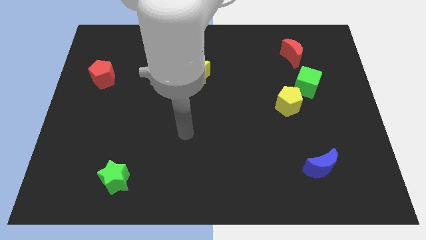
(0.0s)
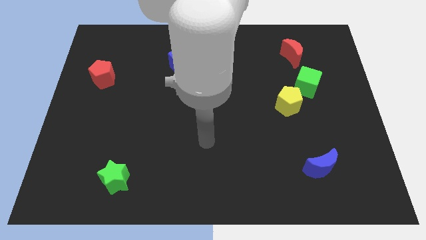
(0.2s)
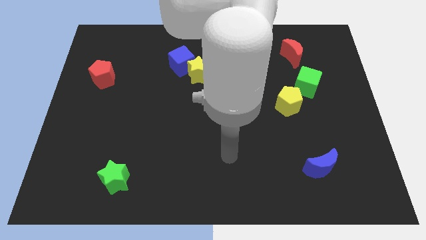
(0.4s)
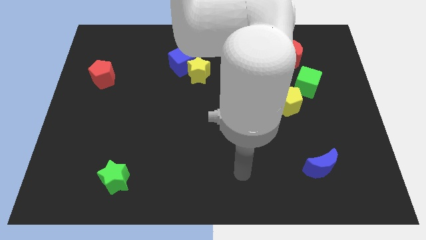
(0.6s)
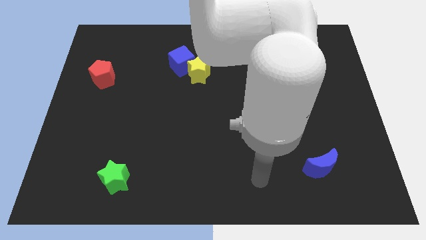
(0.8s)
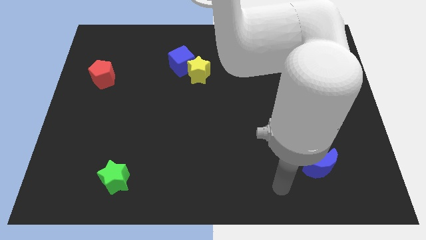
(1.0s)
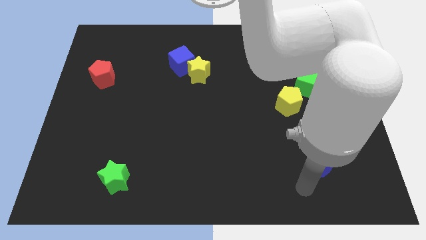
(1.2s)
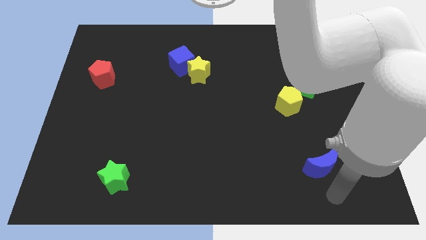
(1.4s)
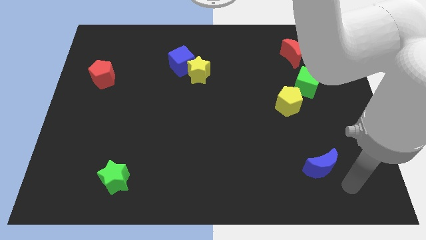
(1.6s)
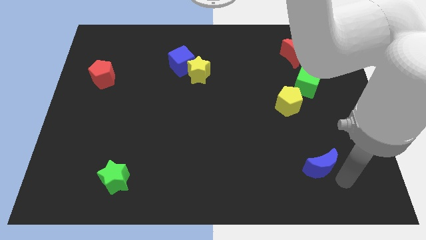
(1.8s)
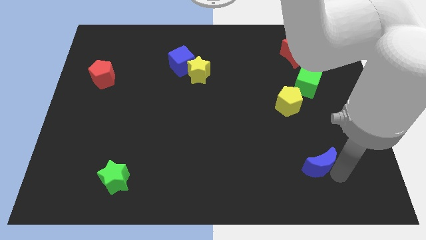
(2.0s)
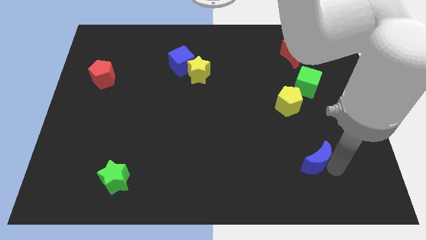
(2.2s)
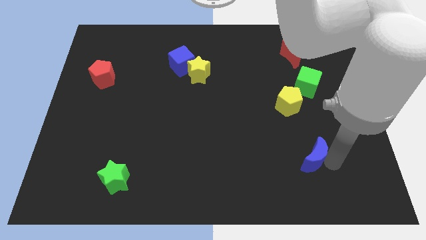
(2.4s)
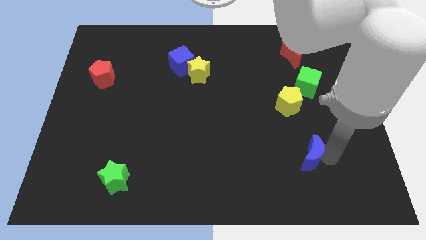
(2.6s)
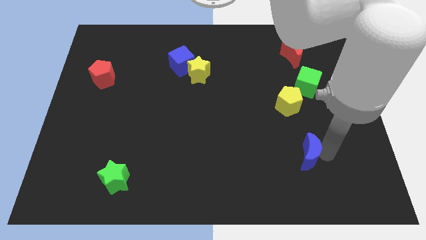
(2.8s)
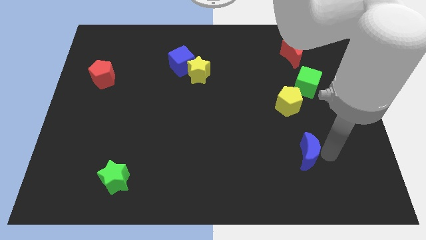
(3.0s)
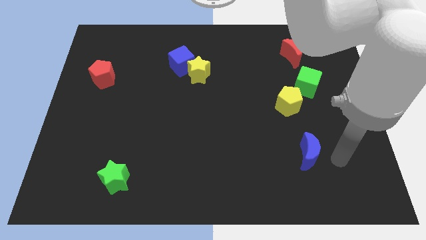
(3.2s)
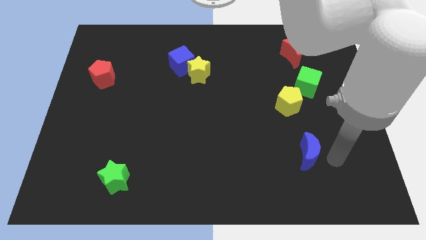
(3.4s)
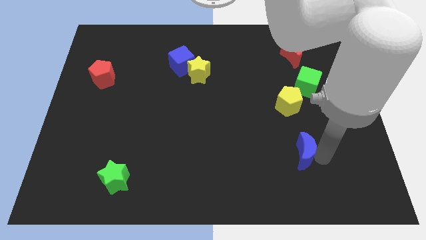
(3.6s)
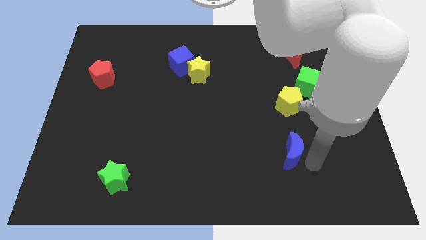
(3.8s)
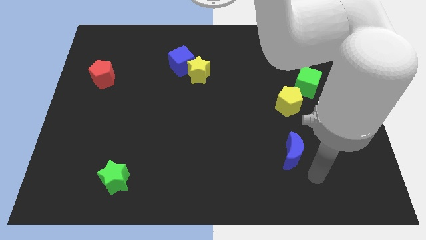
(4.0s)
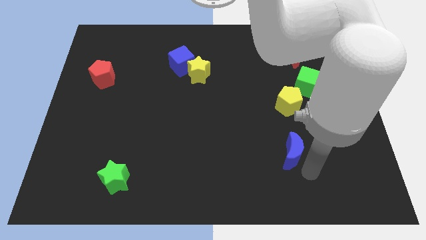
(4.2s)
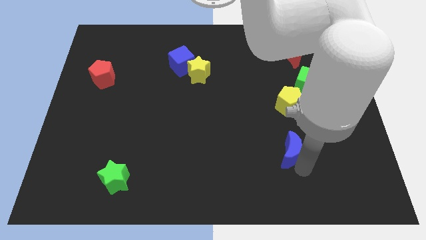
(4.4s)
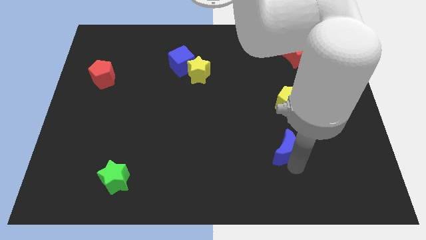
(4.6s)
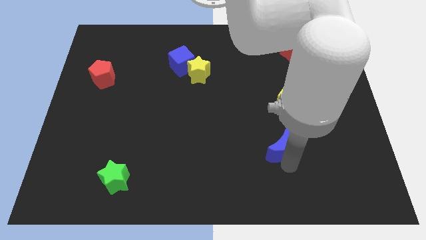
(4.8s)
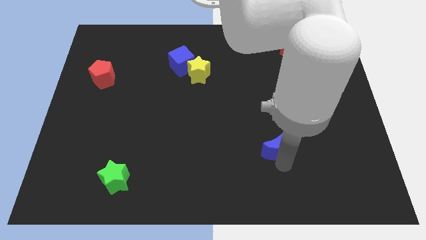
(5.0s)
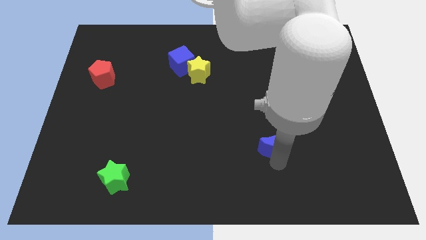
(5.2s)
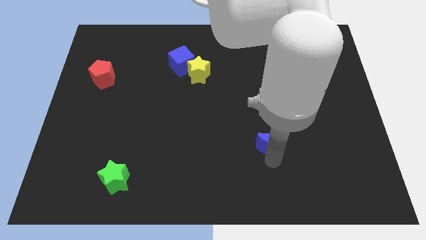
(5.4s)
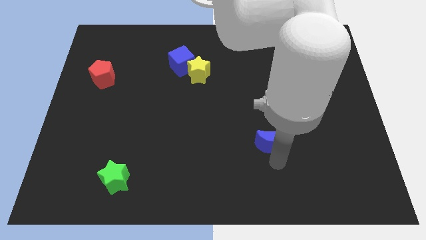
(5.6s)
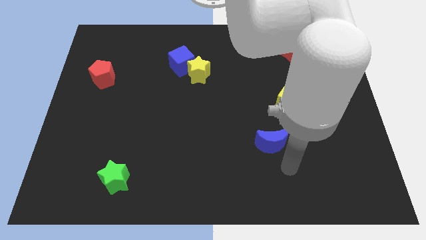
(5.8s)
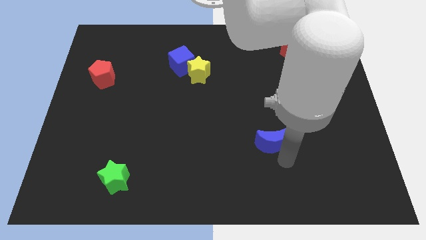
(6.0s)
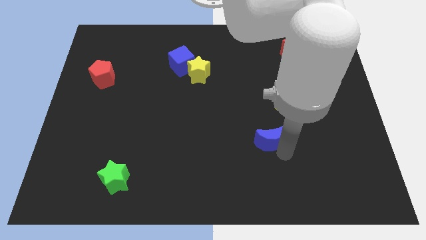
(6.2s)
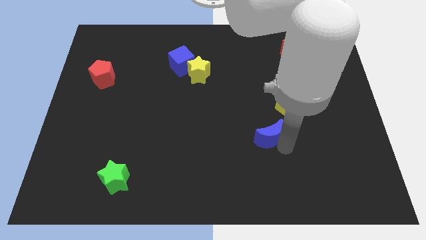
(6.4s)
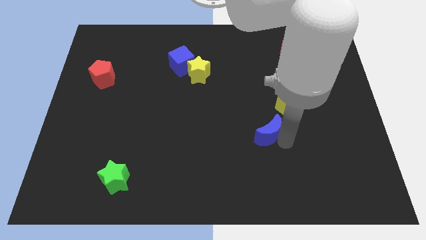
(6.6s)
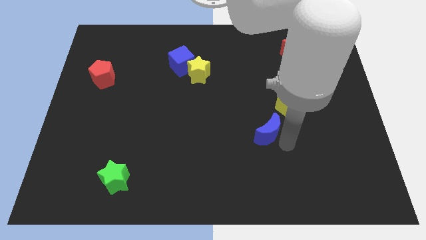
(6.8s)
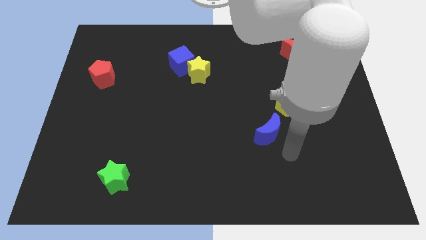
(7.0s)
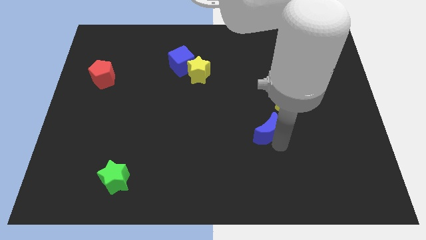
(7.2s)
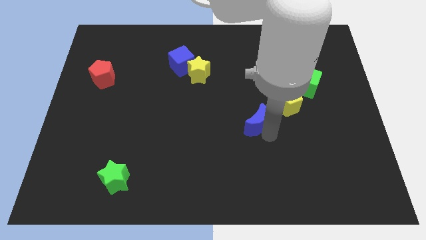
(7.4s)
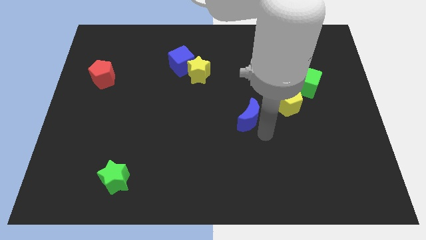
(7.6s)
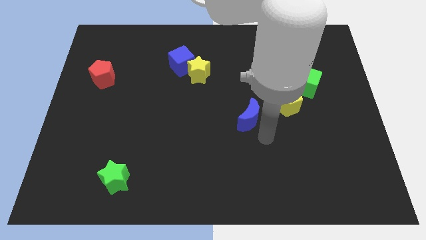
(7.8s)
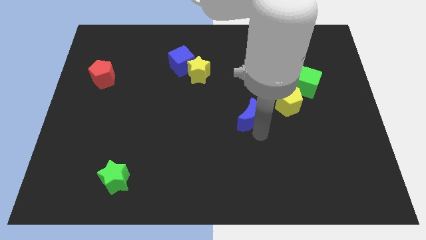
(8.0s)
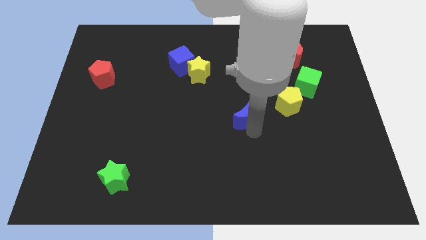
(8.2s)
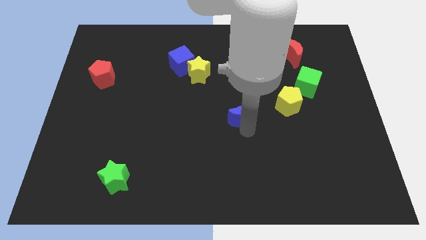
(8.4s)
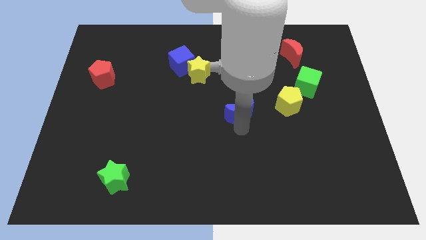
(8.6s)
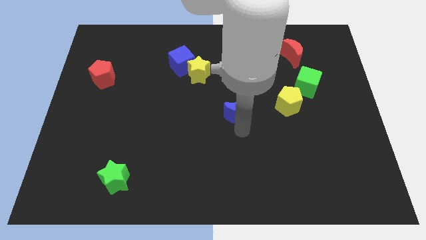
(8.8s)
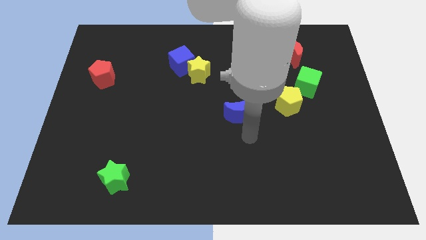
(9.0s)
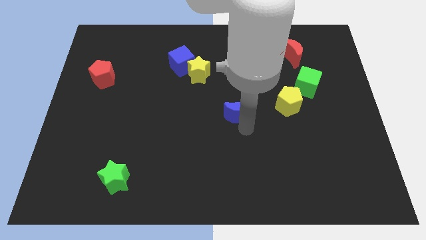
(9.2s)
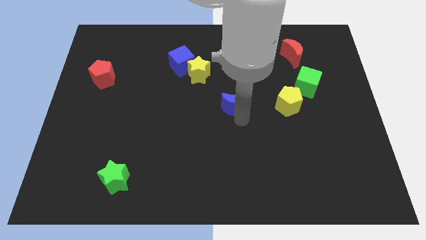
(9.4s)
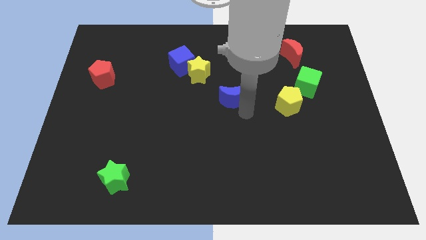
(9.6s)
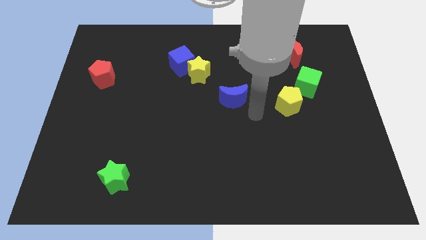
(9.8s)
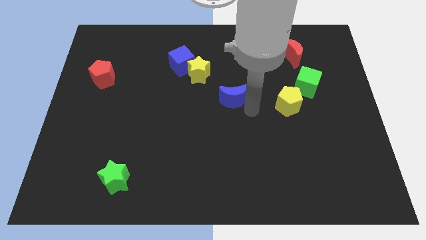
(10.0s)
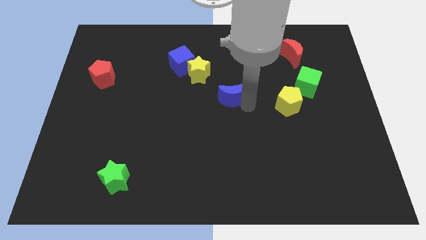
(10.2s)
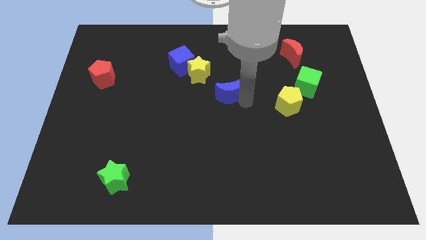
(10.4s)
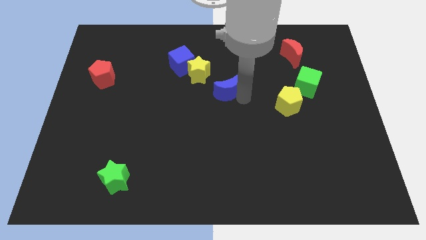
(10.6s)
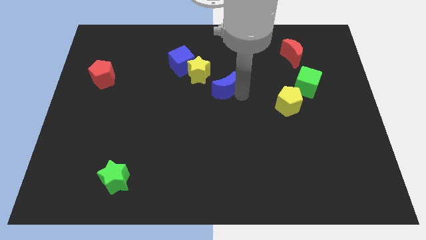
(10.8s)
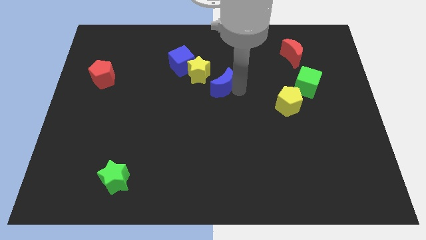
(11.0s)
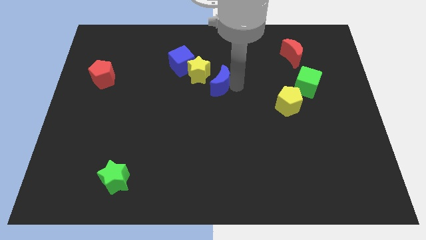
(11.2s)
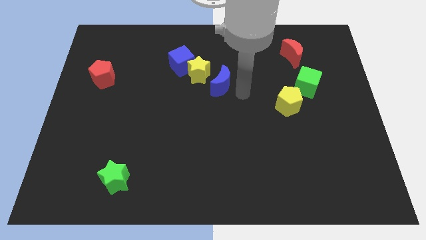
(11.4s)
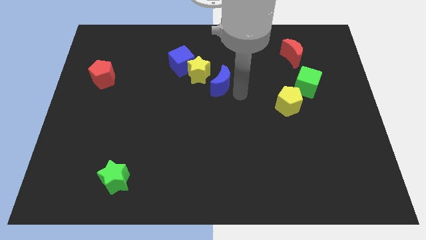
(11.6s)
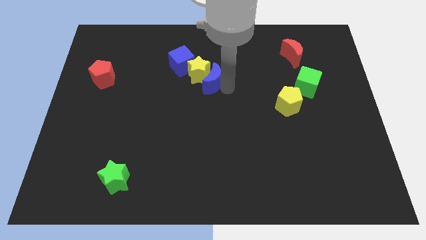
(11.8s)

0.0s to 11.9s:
push the blue moon to the yellow star

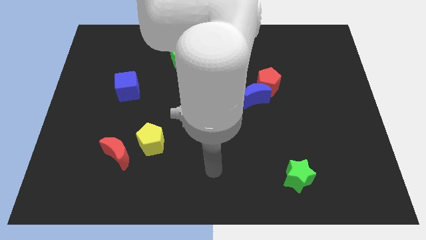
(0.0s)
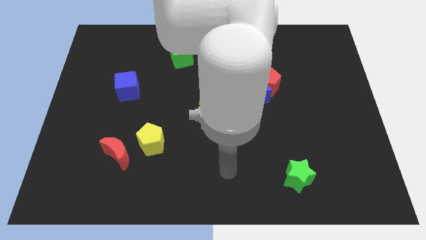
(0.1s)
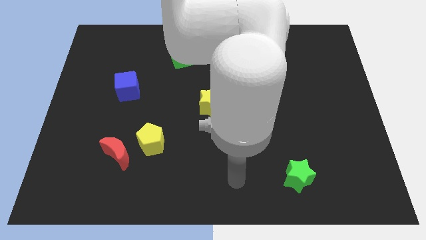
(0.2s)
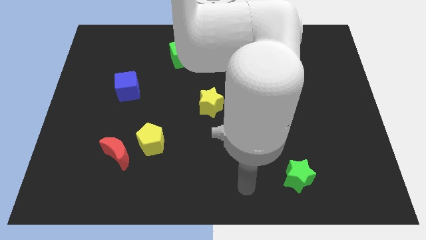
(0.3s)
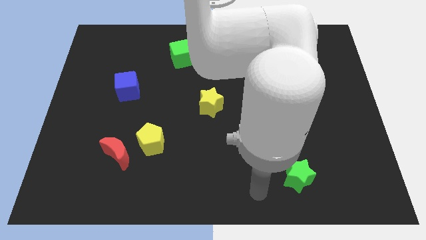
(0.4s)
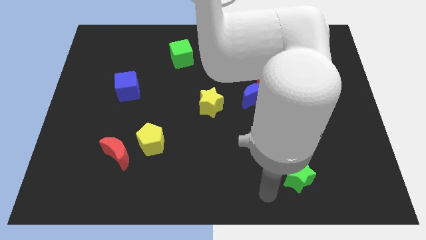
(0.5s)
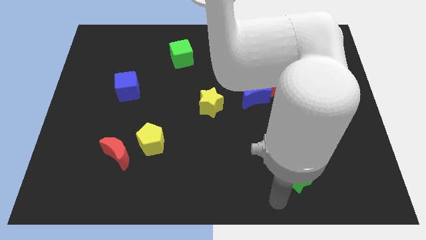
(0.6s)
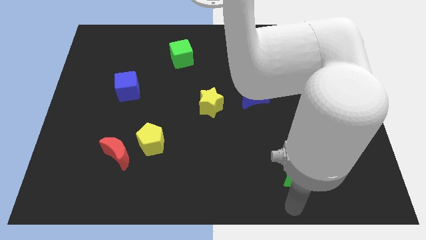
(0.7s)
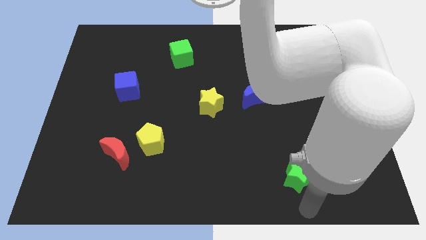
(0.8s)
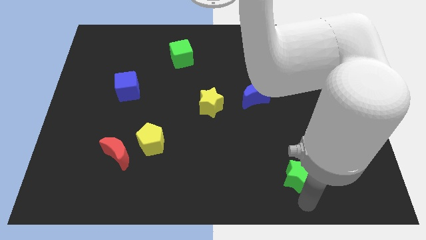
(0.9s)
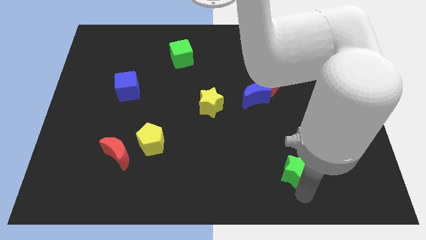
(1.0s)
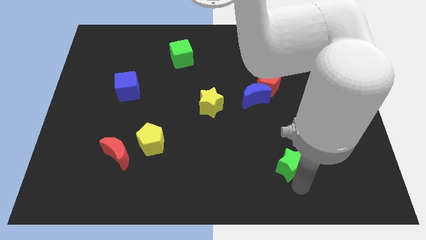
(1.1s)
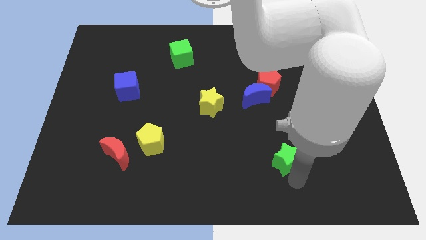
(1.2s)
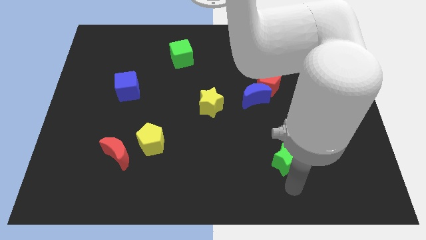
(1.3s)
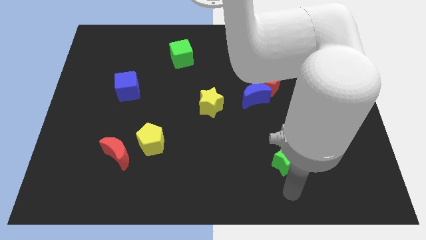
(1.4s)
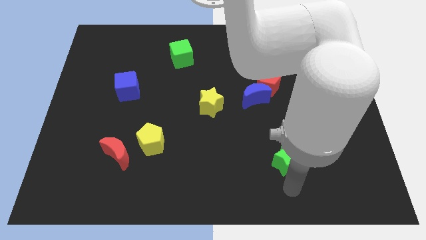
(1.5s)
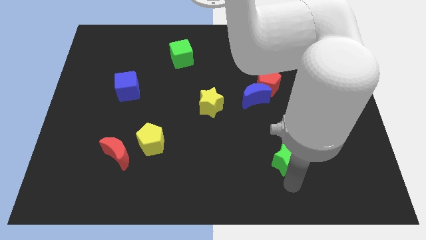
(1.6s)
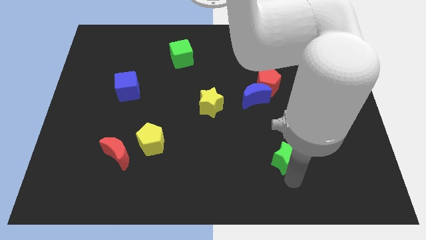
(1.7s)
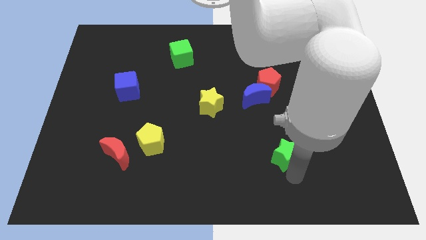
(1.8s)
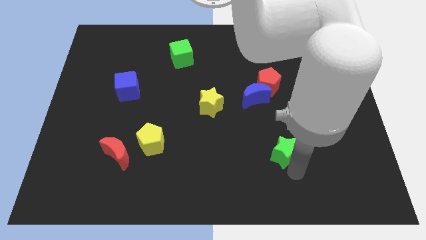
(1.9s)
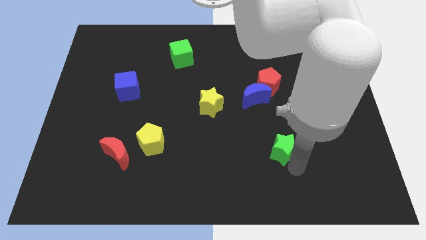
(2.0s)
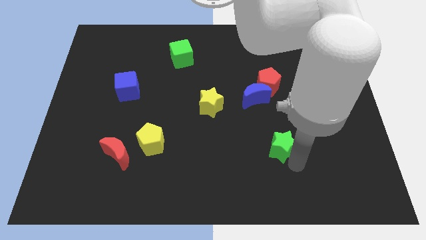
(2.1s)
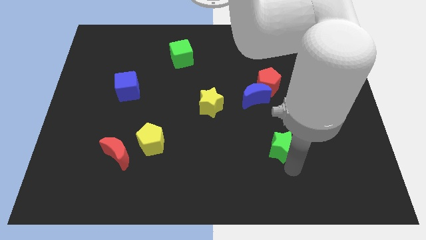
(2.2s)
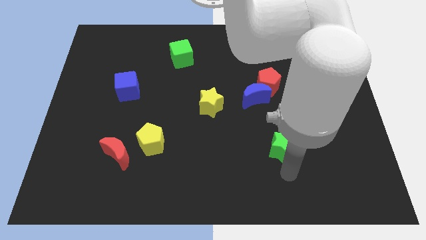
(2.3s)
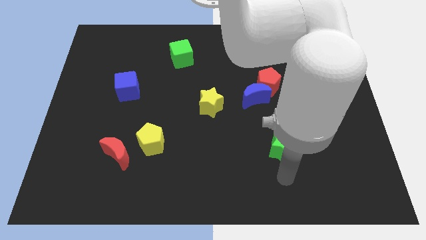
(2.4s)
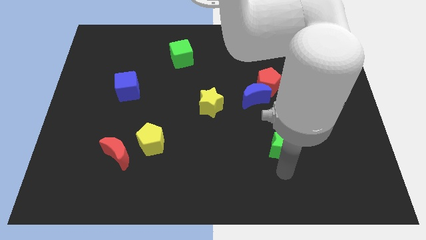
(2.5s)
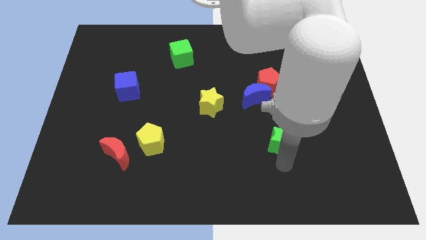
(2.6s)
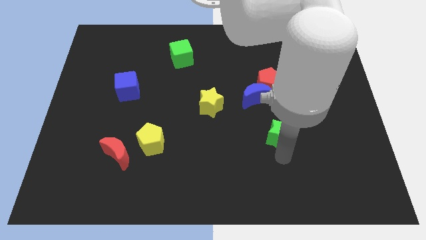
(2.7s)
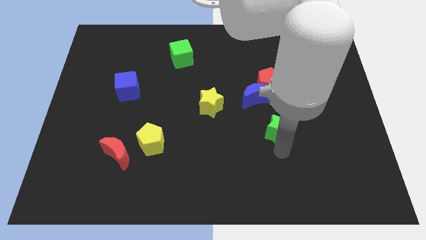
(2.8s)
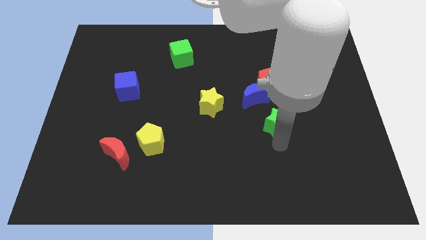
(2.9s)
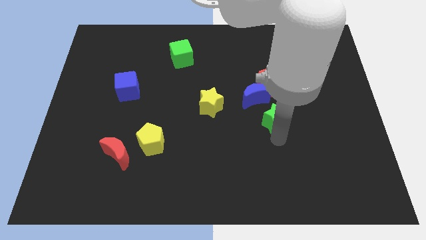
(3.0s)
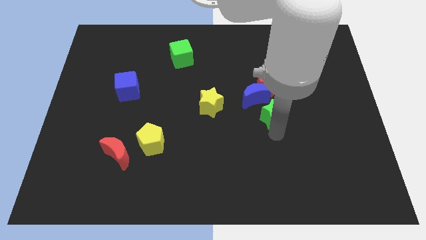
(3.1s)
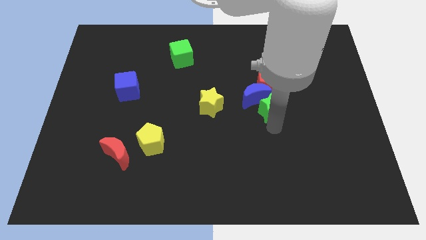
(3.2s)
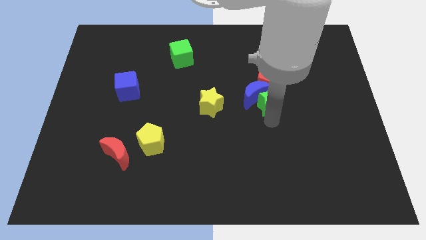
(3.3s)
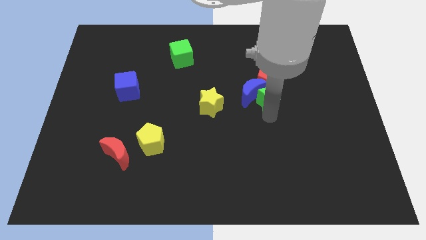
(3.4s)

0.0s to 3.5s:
slide the green star to the red pentagon
